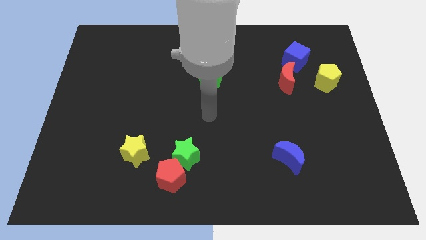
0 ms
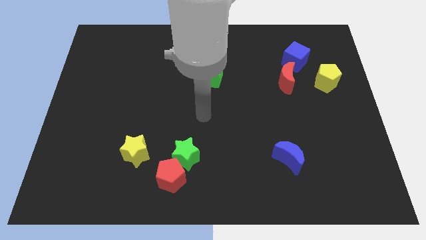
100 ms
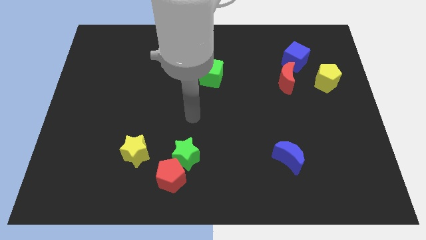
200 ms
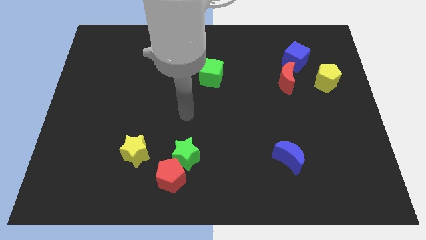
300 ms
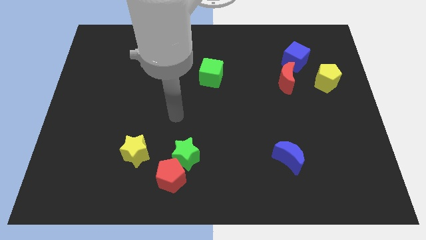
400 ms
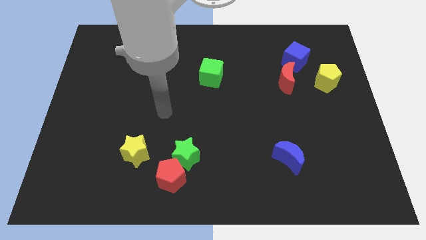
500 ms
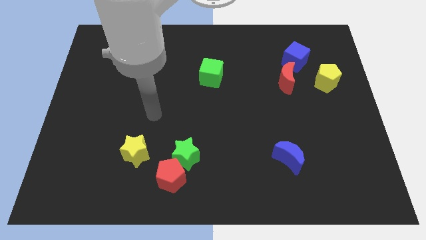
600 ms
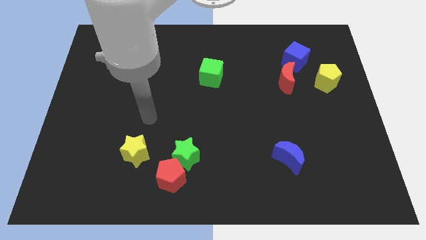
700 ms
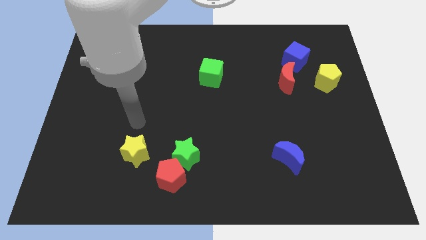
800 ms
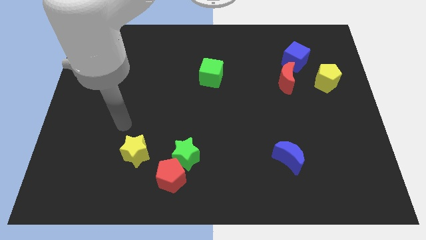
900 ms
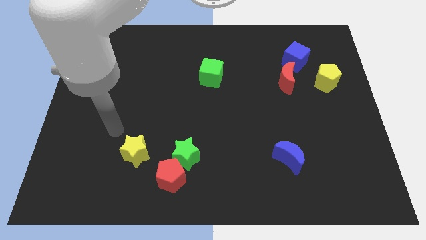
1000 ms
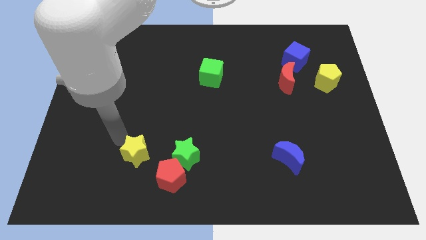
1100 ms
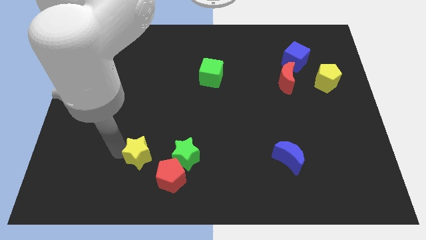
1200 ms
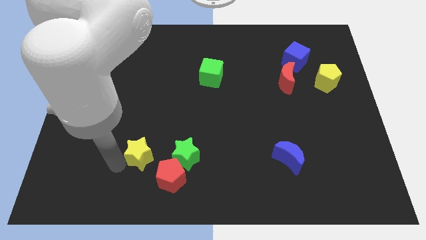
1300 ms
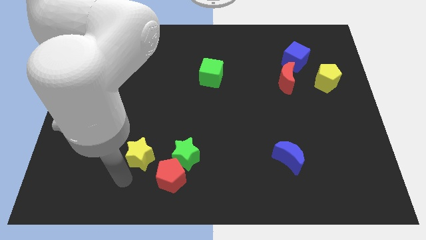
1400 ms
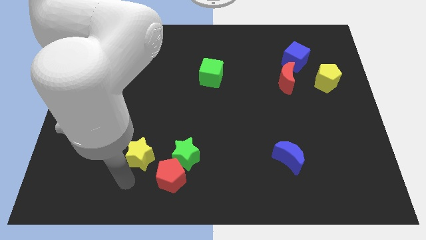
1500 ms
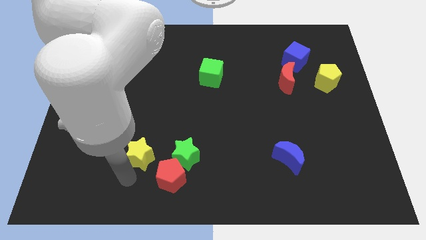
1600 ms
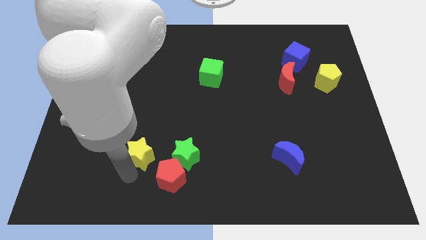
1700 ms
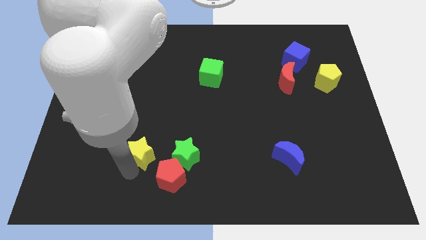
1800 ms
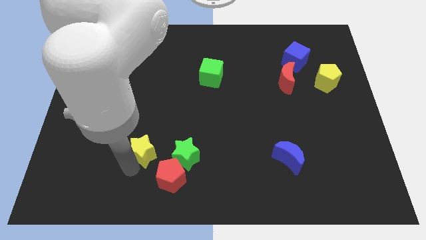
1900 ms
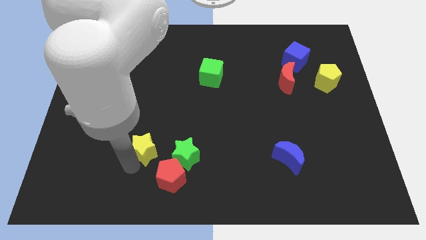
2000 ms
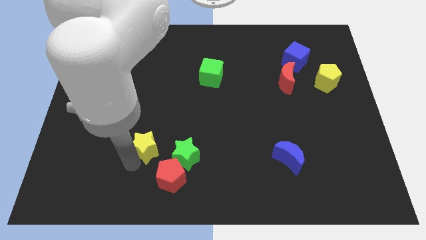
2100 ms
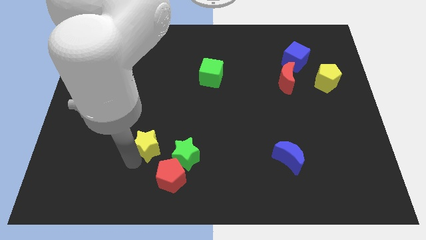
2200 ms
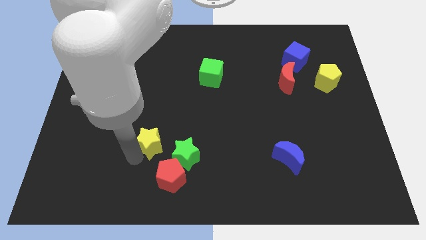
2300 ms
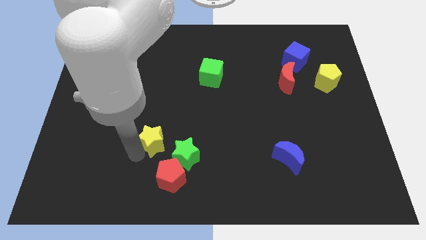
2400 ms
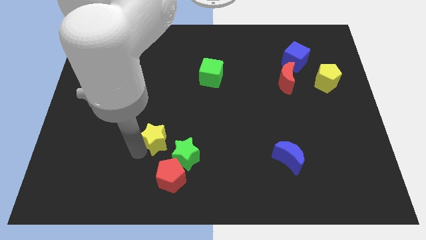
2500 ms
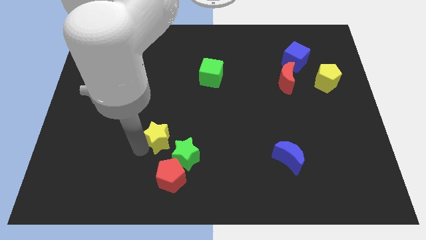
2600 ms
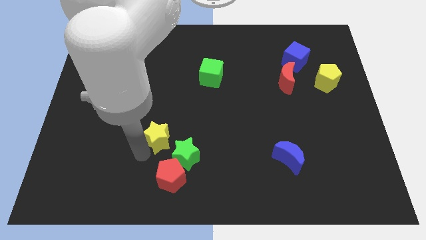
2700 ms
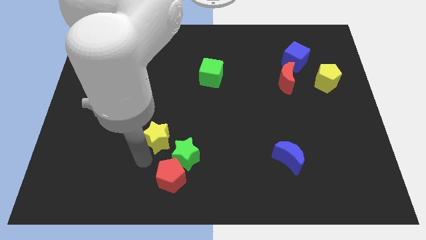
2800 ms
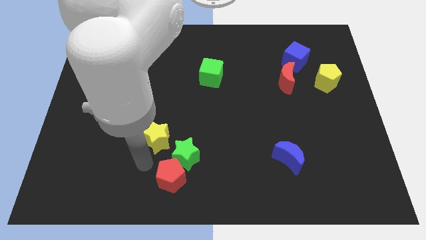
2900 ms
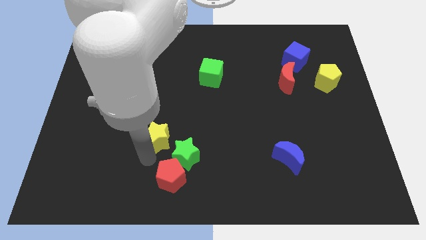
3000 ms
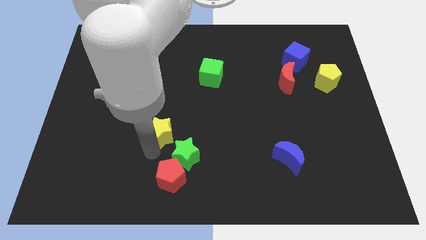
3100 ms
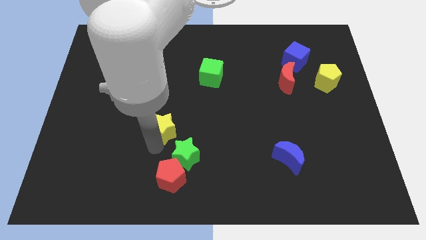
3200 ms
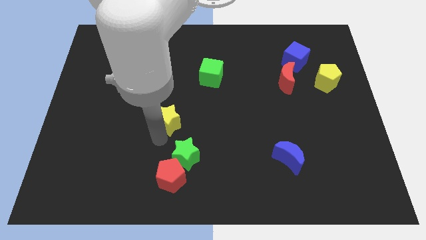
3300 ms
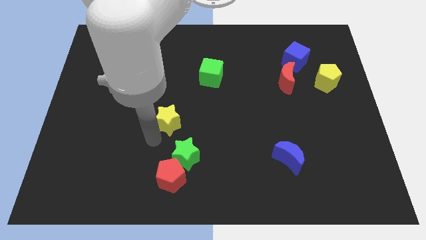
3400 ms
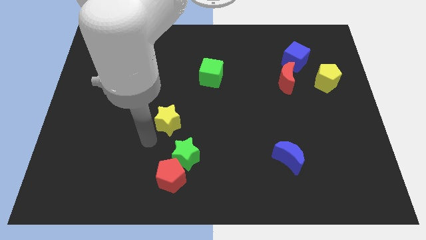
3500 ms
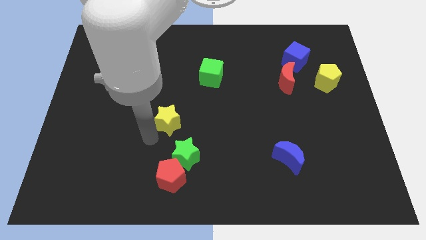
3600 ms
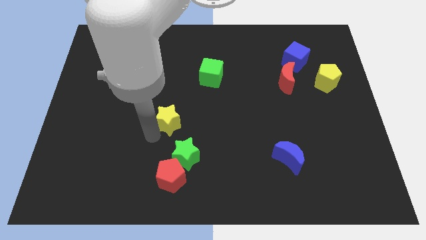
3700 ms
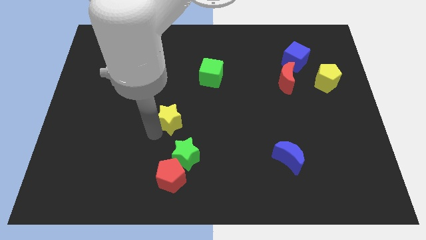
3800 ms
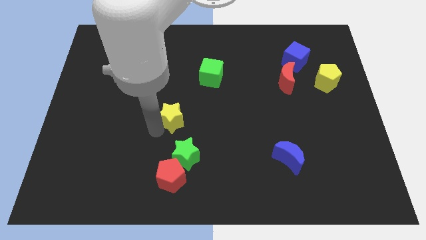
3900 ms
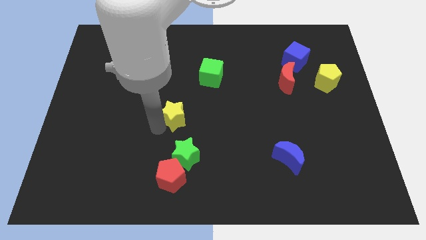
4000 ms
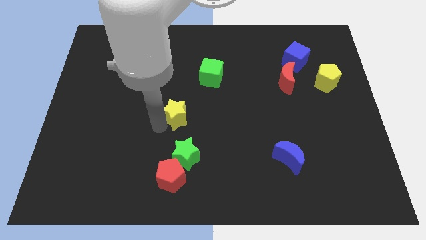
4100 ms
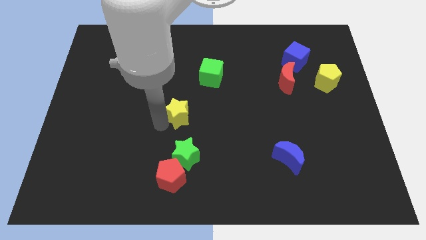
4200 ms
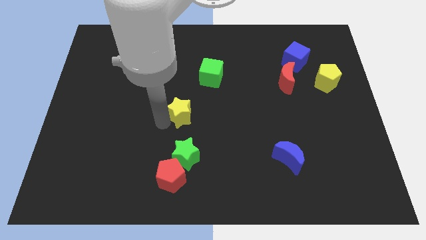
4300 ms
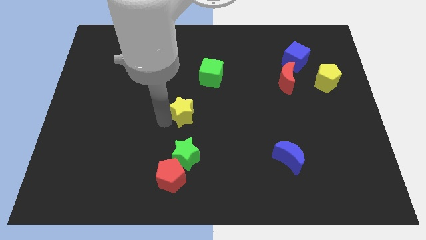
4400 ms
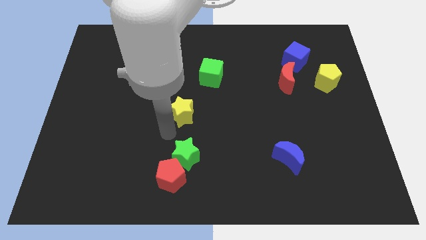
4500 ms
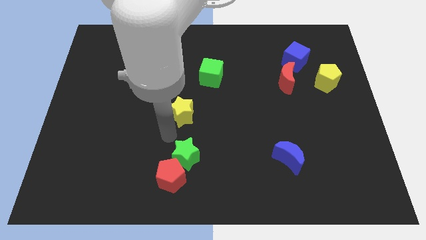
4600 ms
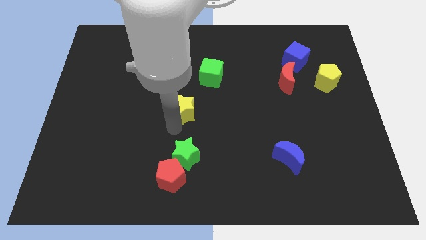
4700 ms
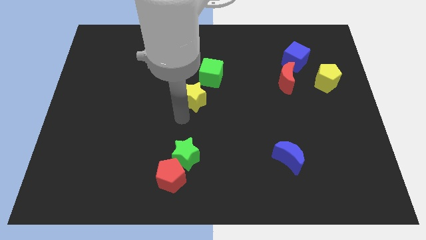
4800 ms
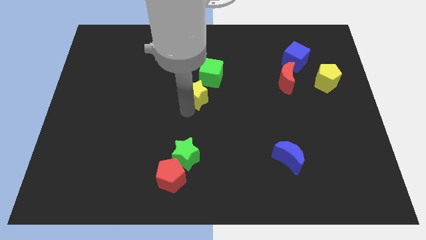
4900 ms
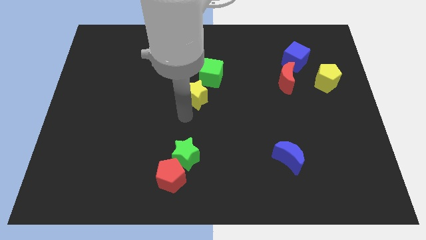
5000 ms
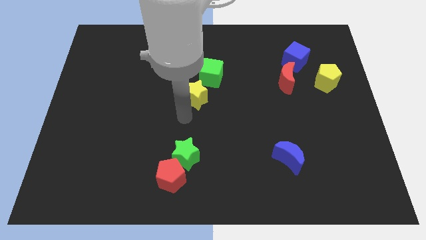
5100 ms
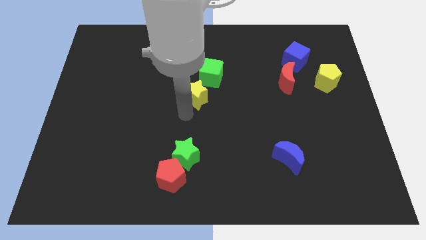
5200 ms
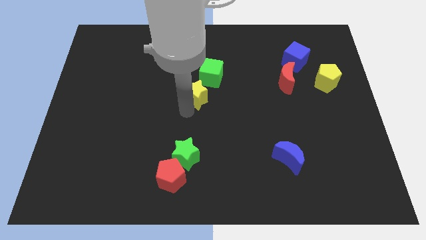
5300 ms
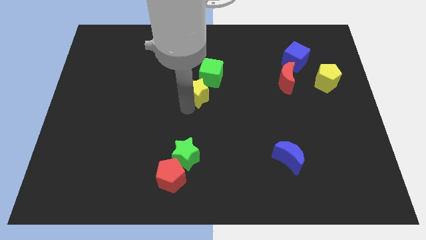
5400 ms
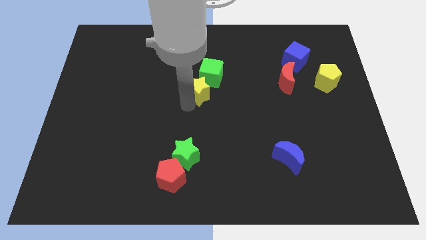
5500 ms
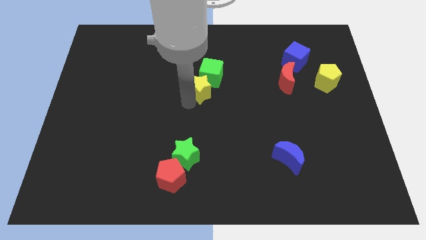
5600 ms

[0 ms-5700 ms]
put the yellow star close to the green cube

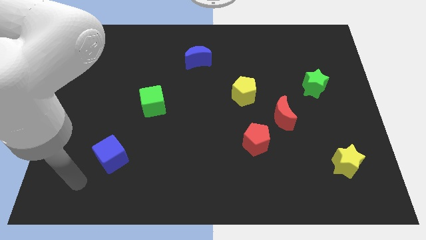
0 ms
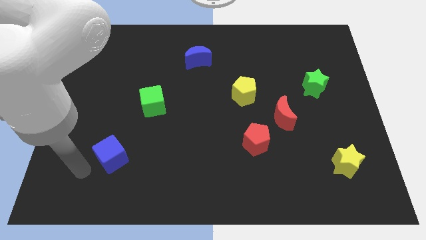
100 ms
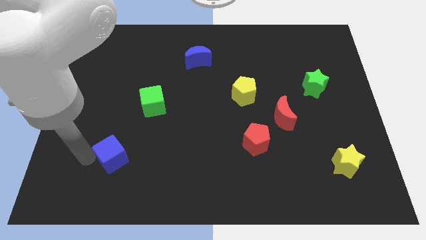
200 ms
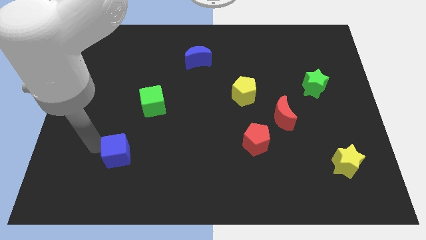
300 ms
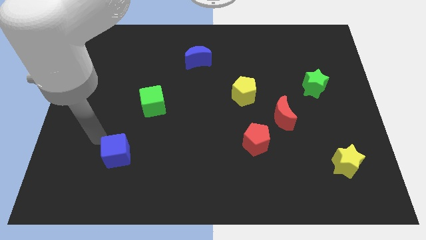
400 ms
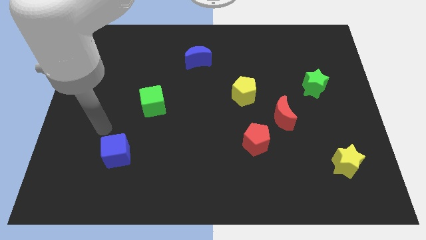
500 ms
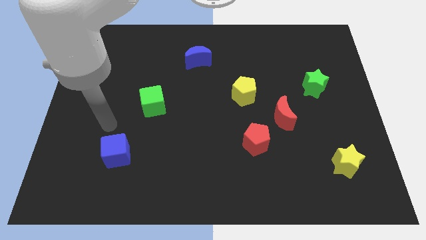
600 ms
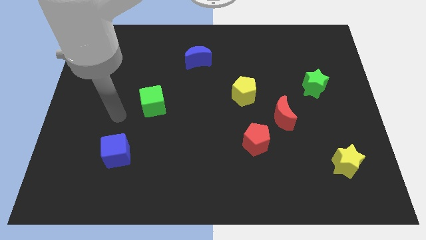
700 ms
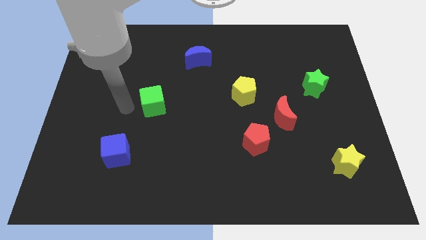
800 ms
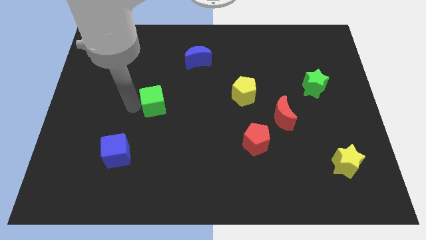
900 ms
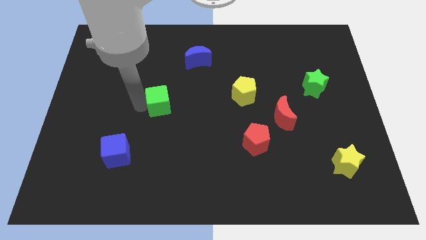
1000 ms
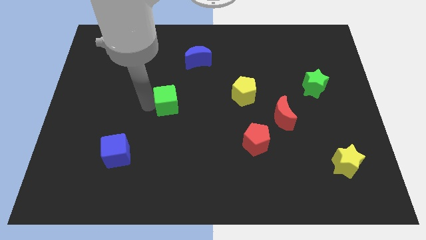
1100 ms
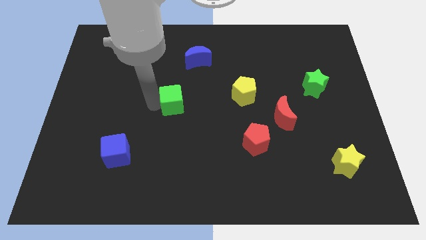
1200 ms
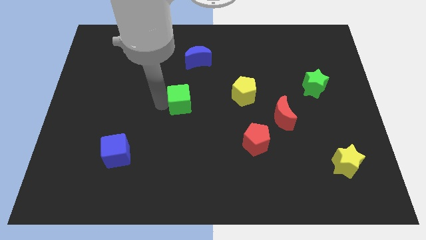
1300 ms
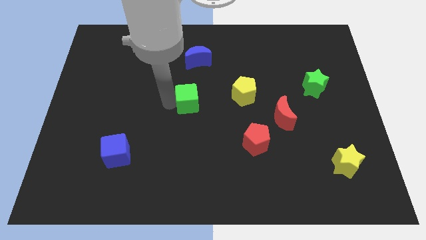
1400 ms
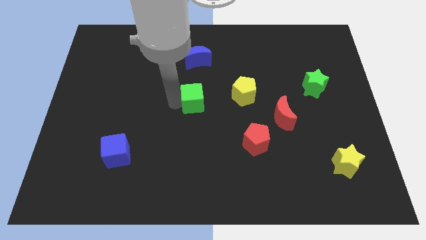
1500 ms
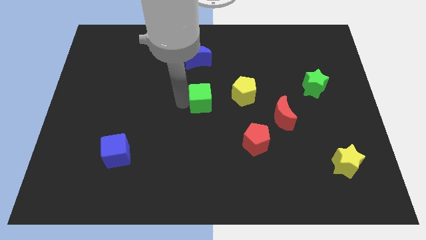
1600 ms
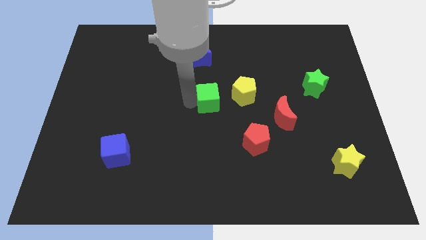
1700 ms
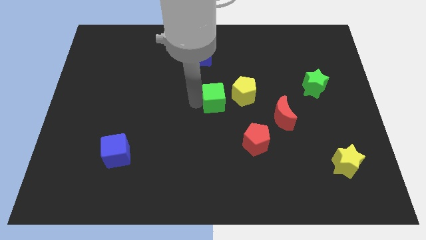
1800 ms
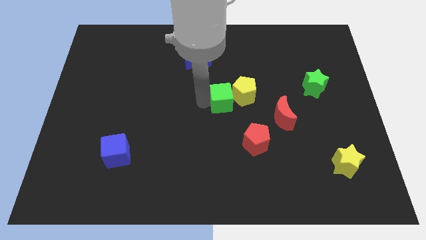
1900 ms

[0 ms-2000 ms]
put the green cube next to the yellow pentagon
